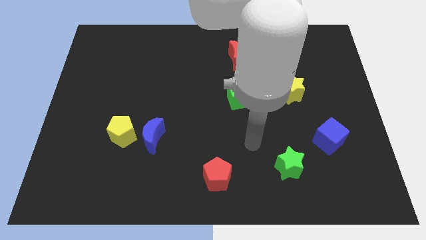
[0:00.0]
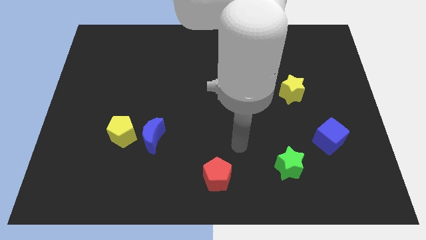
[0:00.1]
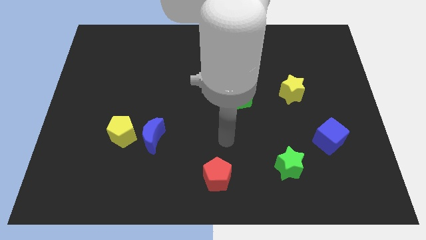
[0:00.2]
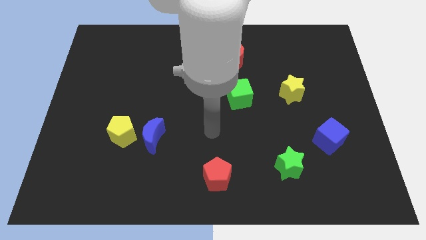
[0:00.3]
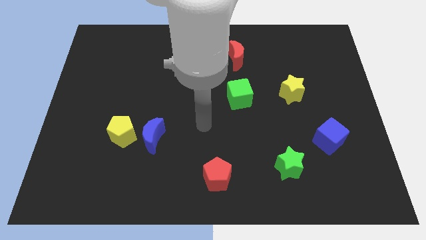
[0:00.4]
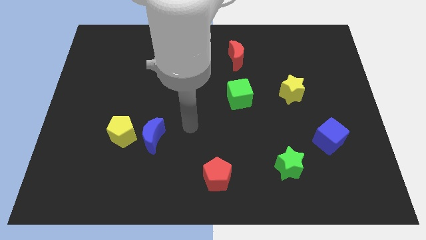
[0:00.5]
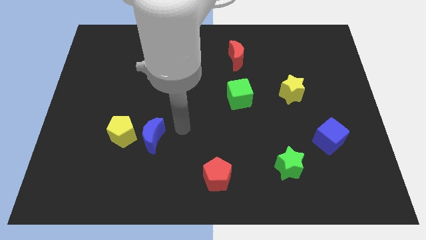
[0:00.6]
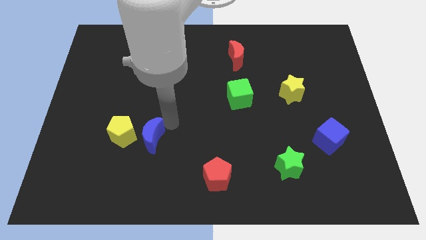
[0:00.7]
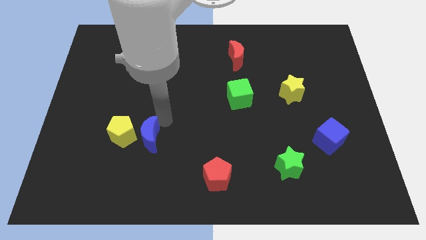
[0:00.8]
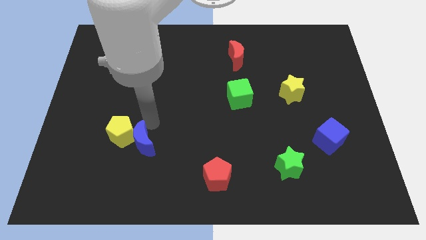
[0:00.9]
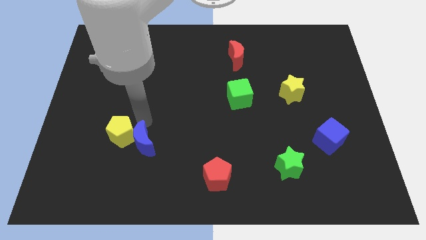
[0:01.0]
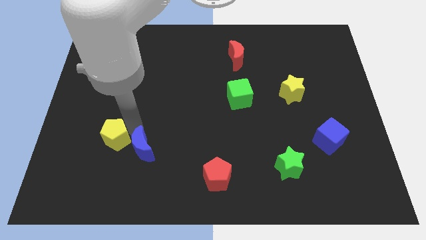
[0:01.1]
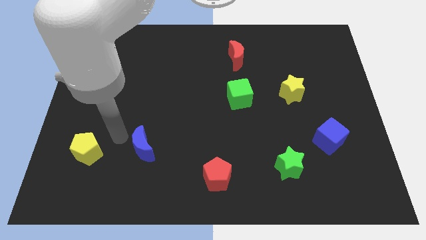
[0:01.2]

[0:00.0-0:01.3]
pull the blue moon apart from the yellow pentagon

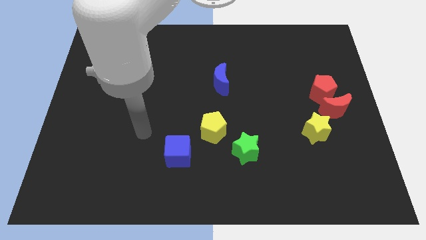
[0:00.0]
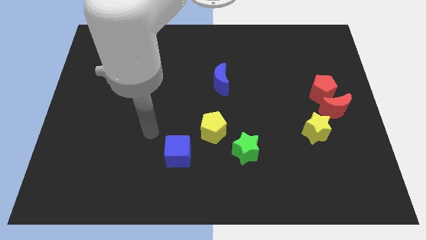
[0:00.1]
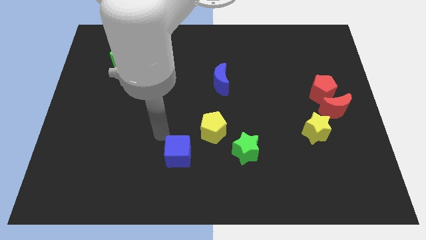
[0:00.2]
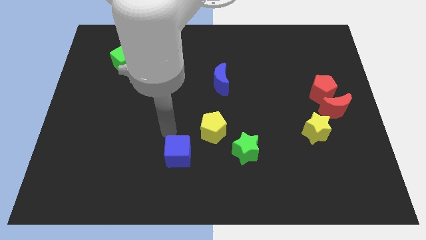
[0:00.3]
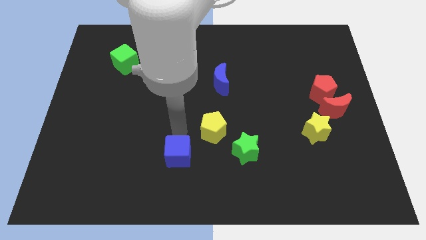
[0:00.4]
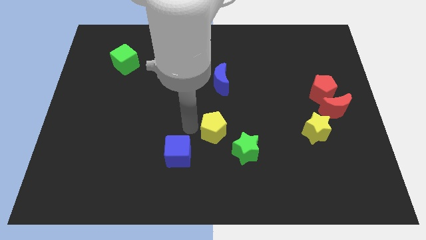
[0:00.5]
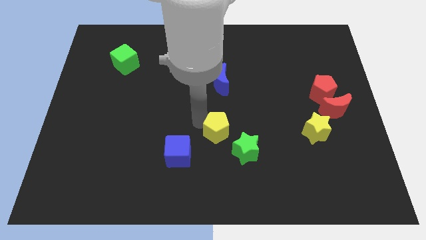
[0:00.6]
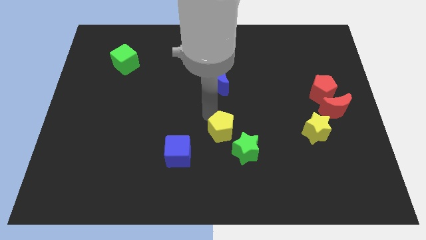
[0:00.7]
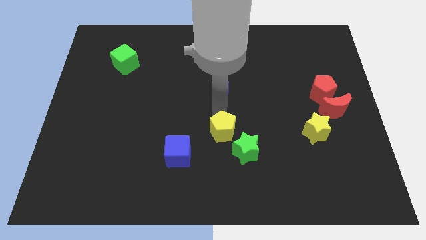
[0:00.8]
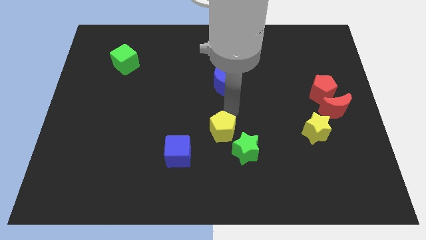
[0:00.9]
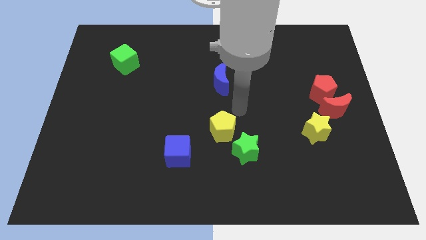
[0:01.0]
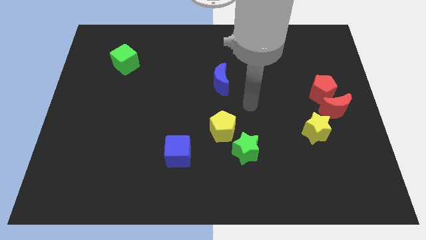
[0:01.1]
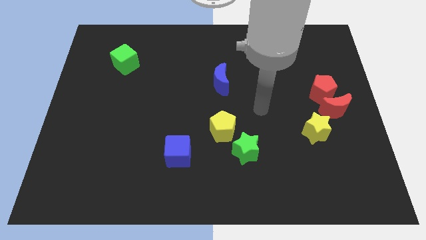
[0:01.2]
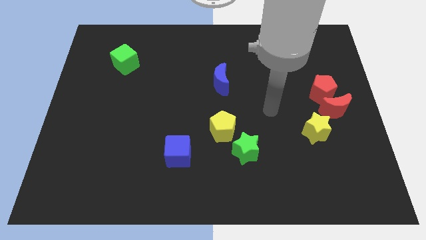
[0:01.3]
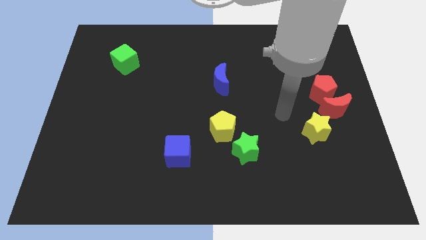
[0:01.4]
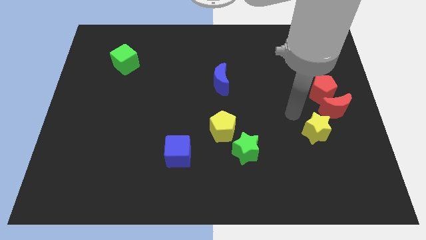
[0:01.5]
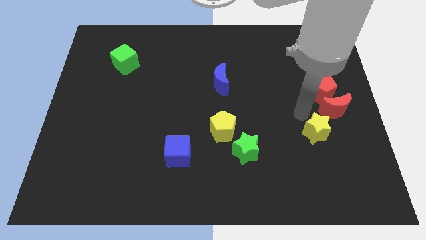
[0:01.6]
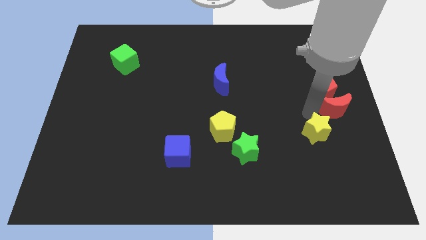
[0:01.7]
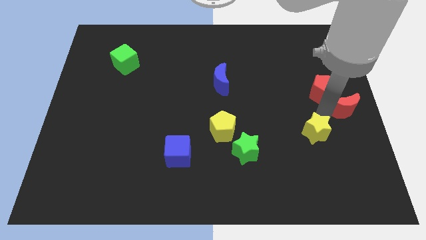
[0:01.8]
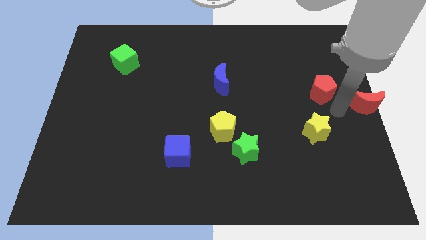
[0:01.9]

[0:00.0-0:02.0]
separate the red pentagon from the red moon

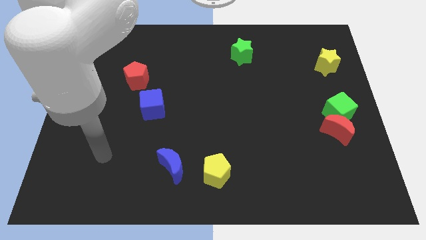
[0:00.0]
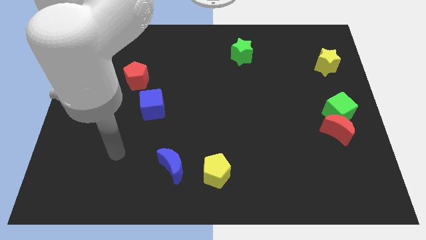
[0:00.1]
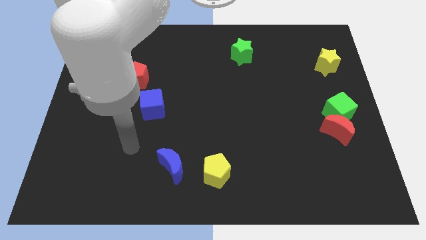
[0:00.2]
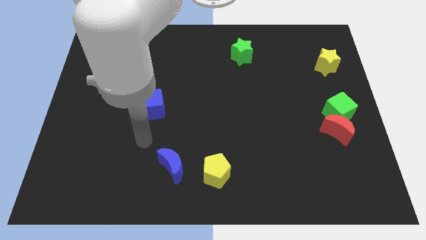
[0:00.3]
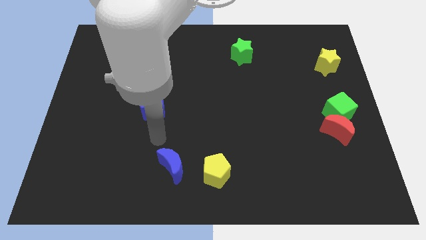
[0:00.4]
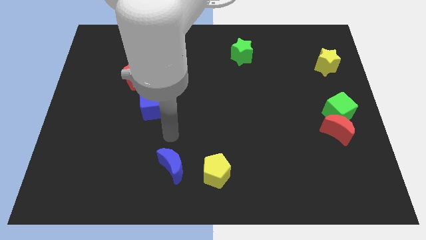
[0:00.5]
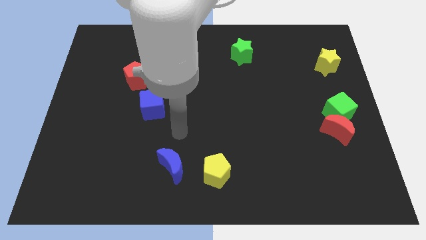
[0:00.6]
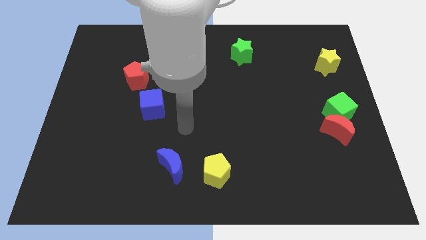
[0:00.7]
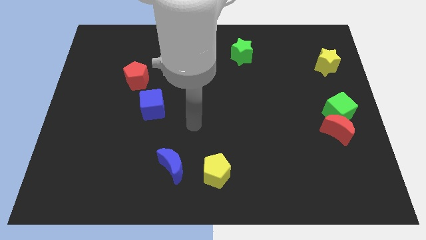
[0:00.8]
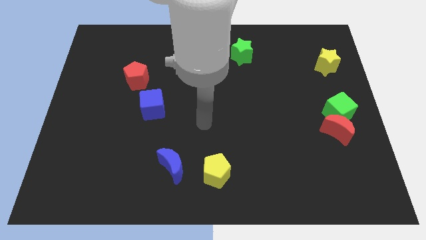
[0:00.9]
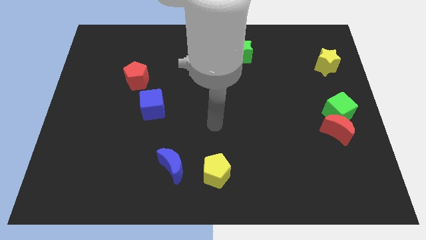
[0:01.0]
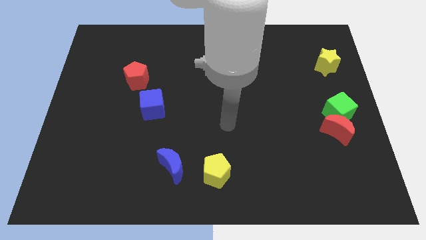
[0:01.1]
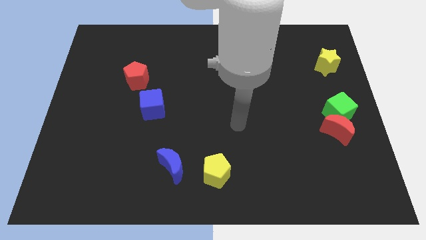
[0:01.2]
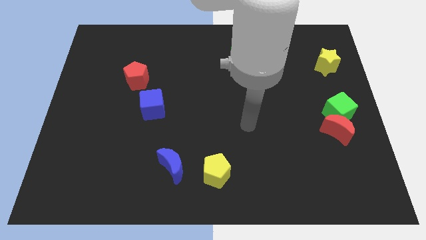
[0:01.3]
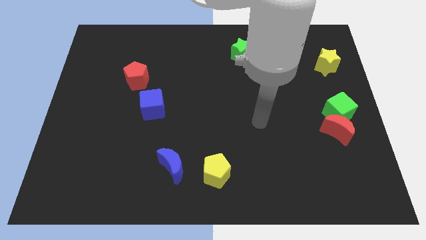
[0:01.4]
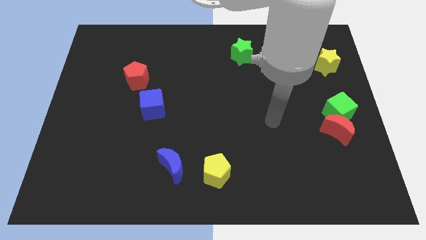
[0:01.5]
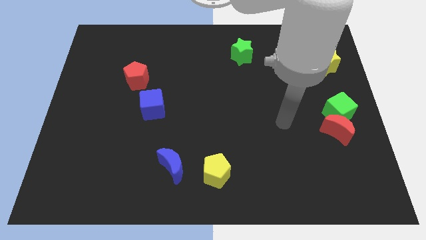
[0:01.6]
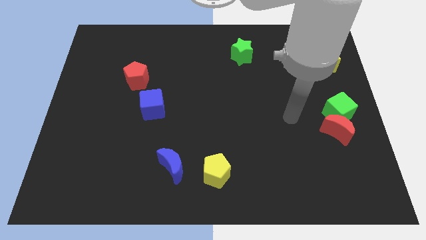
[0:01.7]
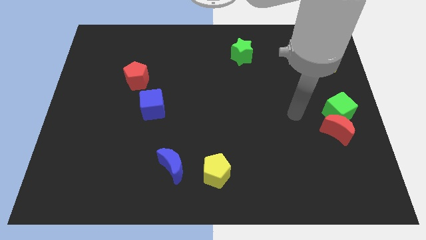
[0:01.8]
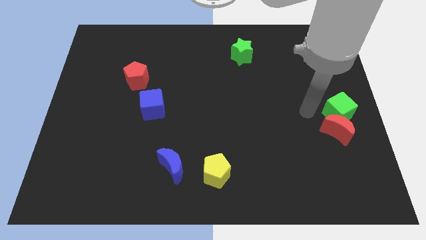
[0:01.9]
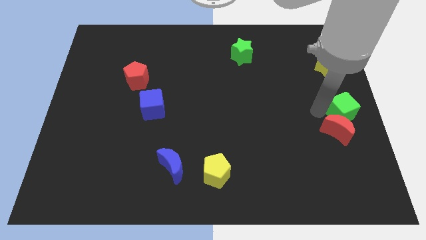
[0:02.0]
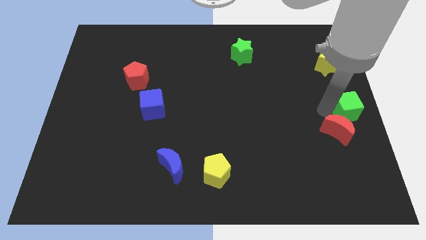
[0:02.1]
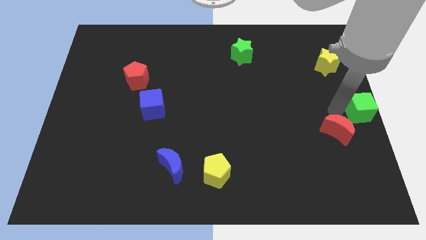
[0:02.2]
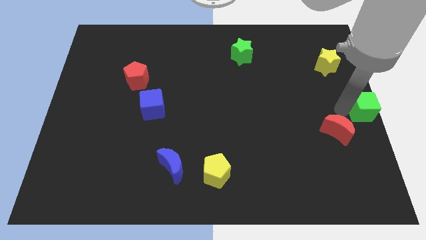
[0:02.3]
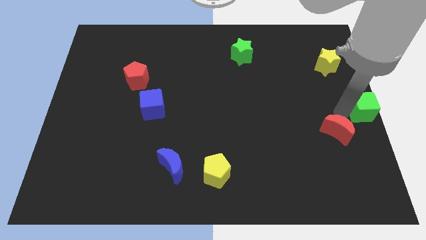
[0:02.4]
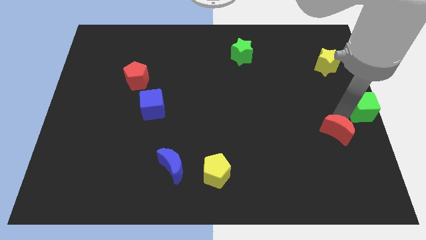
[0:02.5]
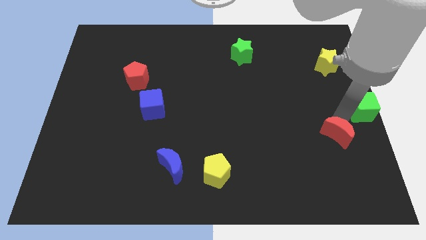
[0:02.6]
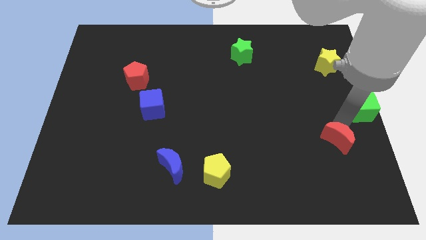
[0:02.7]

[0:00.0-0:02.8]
pull the red moon apart from the green cube

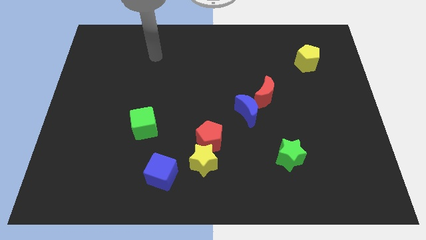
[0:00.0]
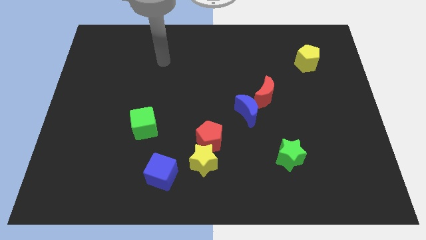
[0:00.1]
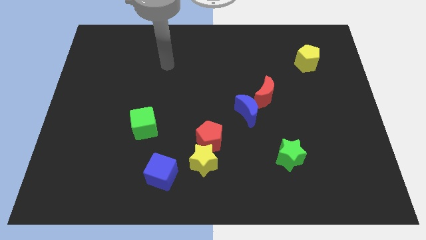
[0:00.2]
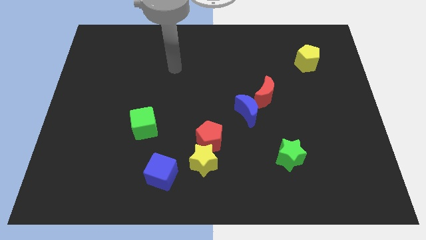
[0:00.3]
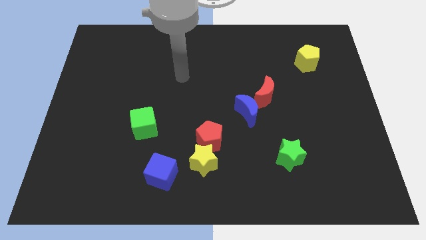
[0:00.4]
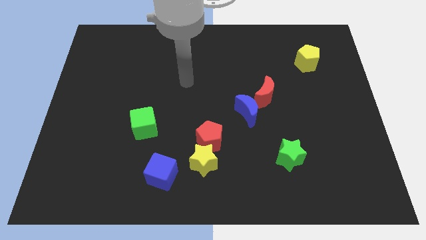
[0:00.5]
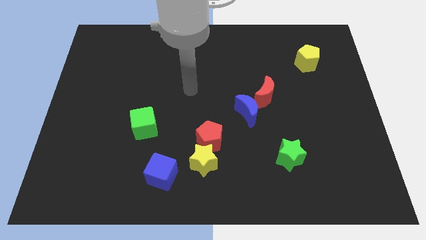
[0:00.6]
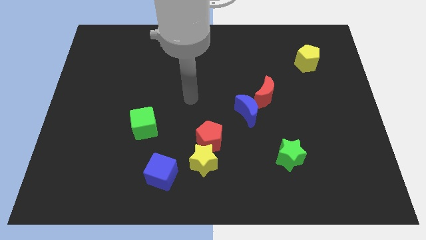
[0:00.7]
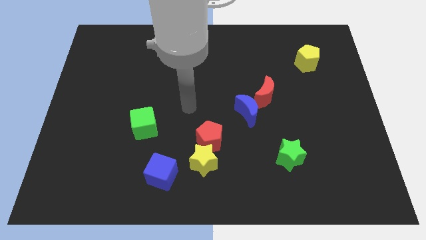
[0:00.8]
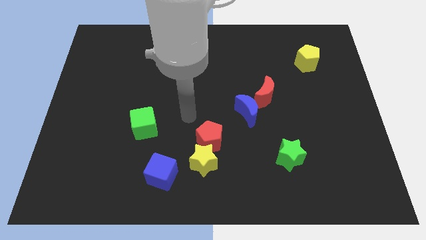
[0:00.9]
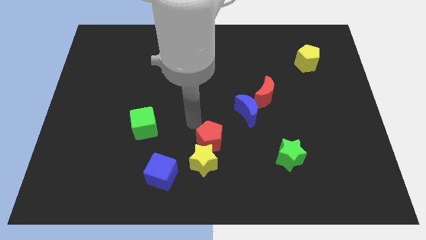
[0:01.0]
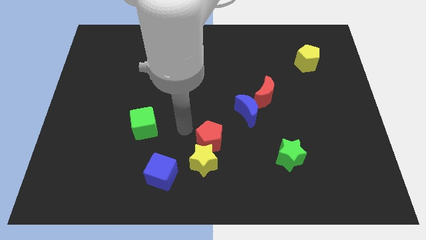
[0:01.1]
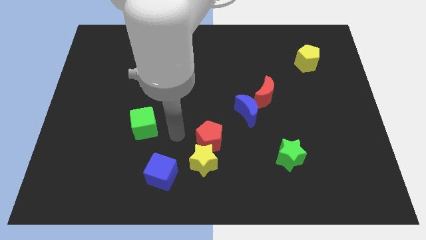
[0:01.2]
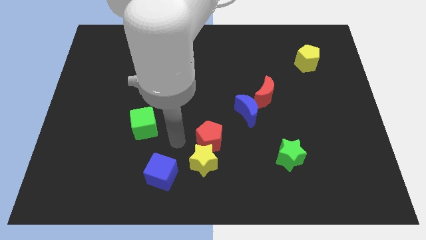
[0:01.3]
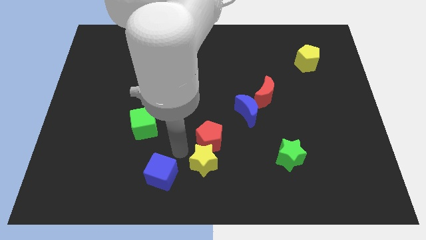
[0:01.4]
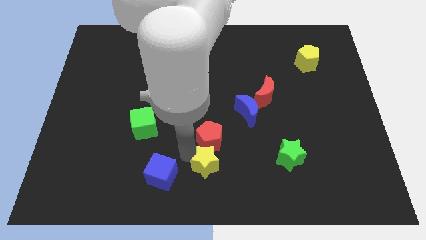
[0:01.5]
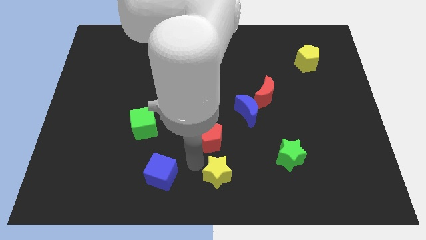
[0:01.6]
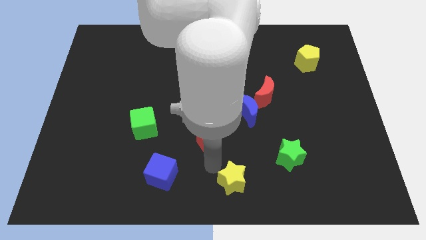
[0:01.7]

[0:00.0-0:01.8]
pull the red pentagon apart from the yellow star

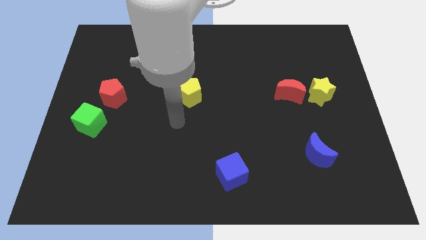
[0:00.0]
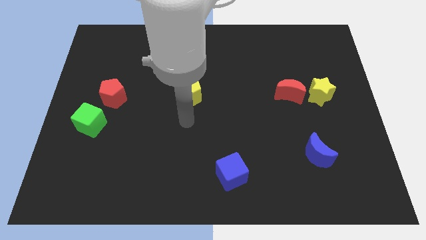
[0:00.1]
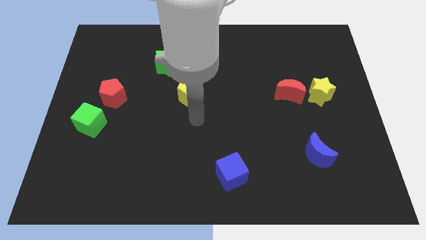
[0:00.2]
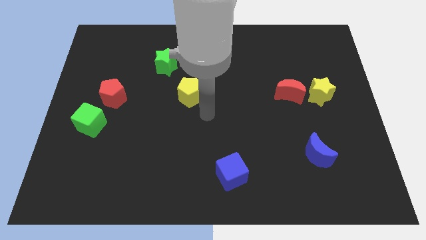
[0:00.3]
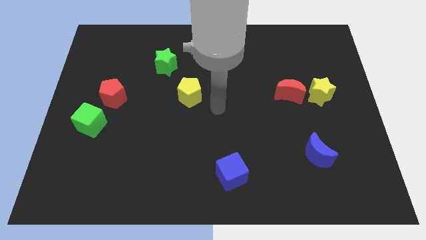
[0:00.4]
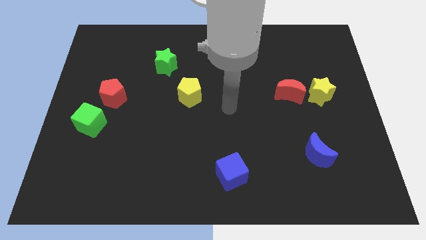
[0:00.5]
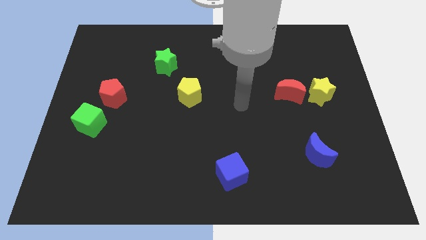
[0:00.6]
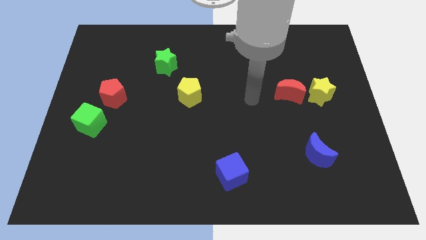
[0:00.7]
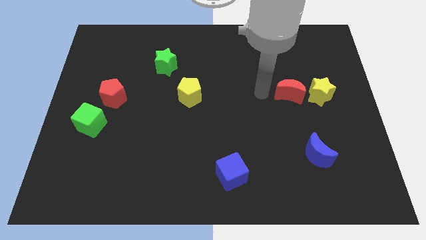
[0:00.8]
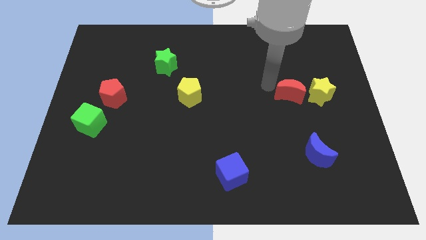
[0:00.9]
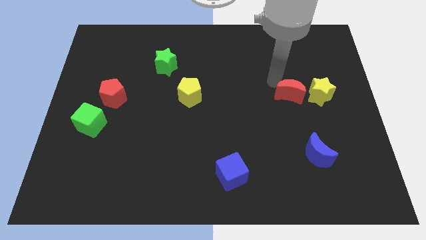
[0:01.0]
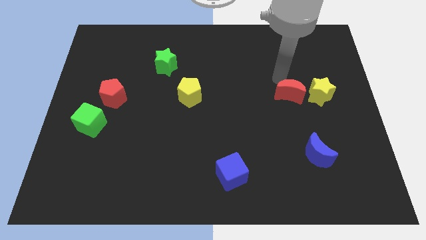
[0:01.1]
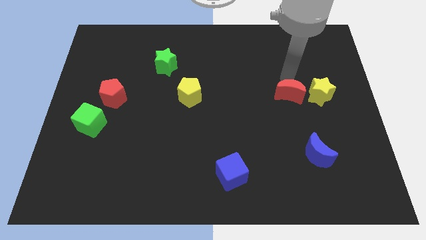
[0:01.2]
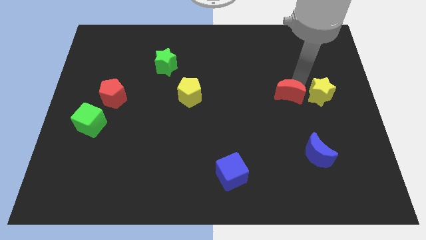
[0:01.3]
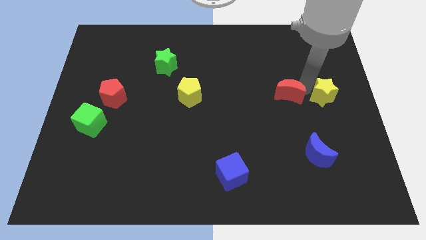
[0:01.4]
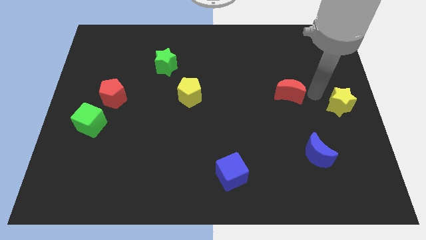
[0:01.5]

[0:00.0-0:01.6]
separate the red moon from the yellow star
